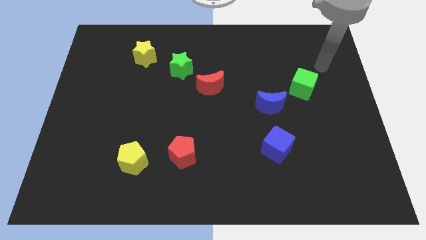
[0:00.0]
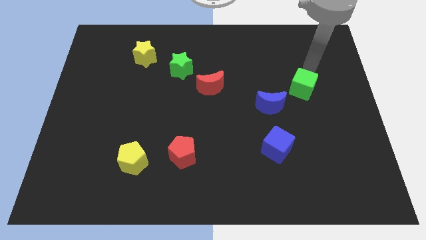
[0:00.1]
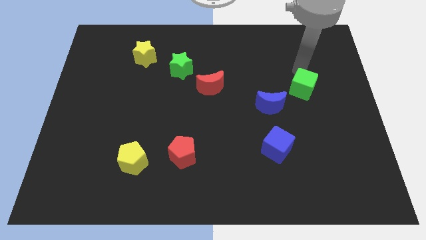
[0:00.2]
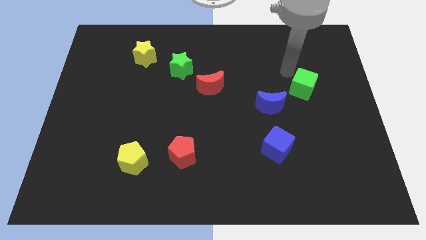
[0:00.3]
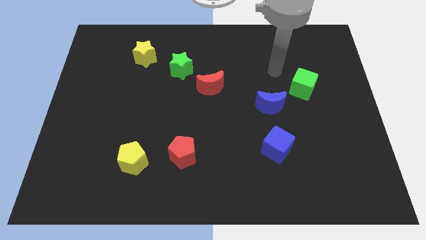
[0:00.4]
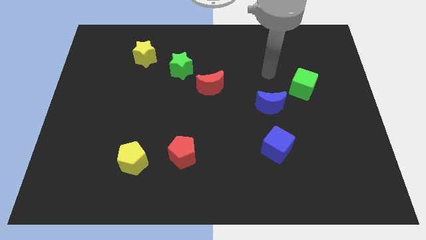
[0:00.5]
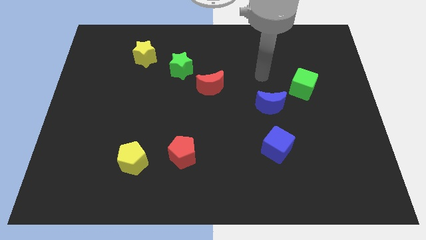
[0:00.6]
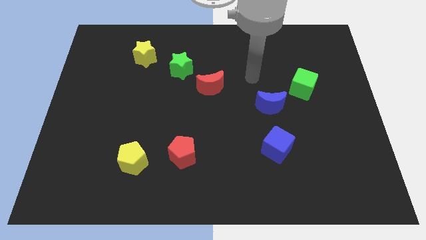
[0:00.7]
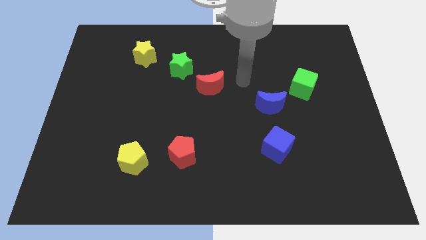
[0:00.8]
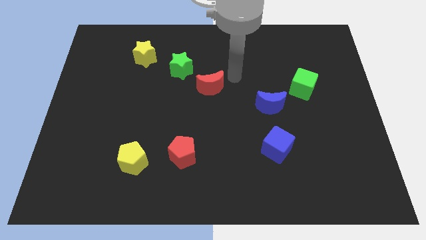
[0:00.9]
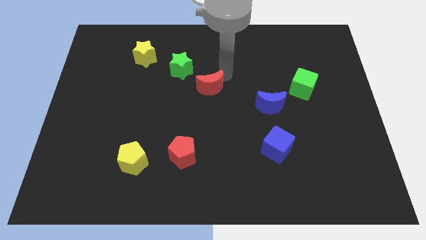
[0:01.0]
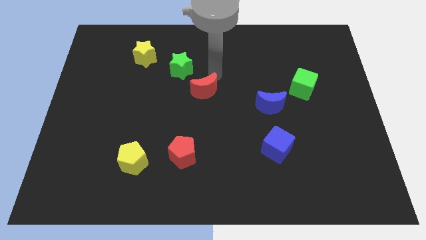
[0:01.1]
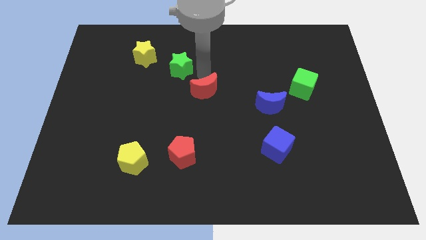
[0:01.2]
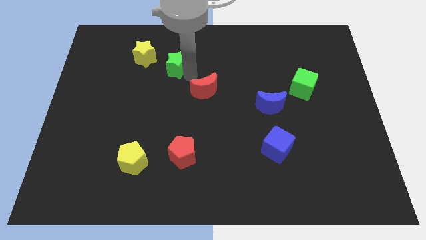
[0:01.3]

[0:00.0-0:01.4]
pull the red moon apart from the green star

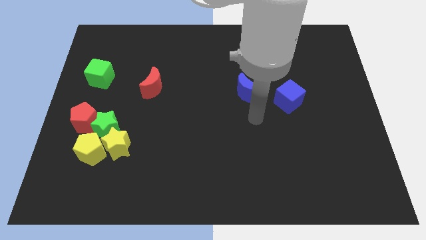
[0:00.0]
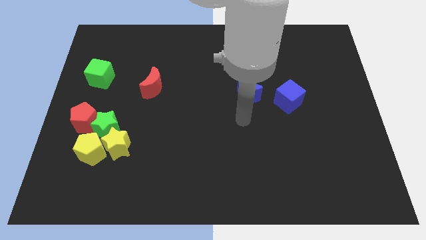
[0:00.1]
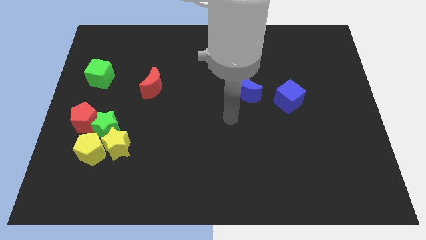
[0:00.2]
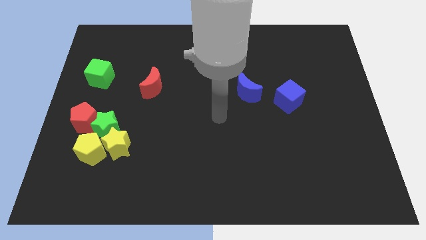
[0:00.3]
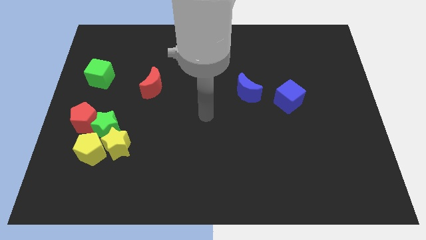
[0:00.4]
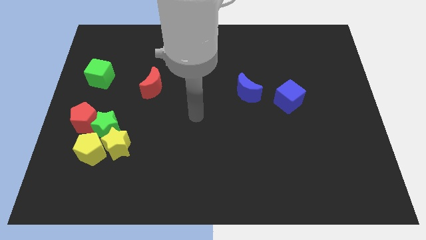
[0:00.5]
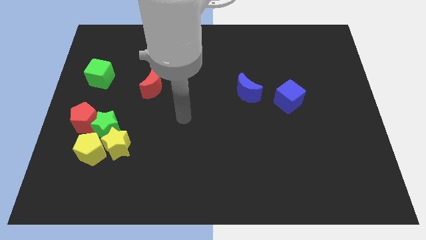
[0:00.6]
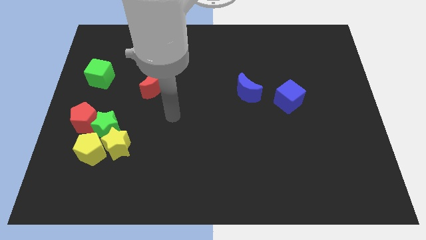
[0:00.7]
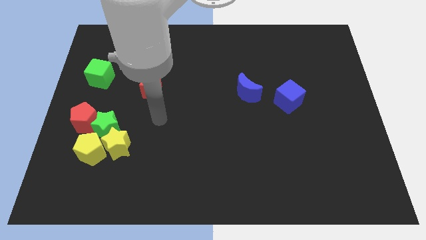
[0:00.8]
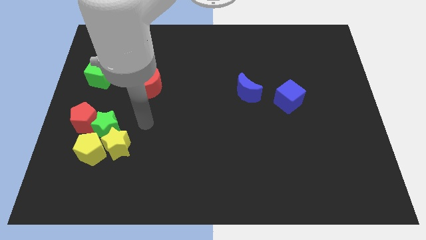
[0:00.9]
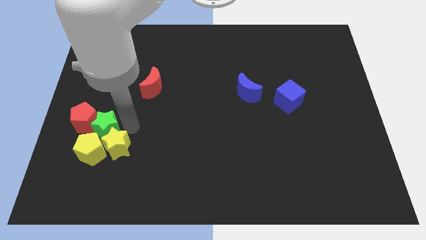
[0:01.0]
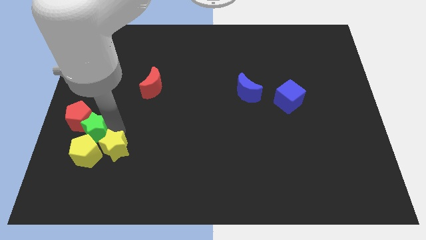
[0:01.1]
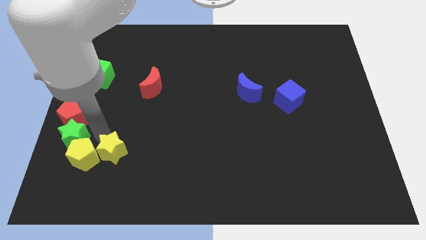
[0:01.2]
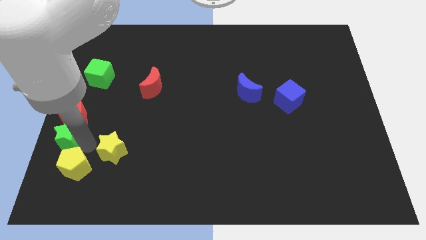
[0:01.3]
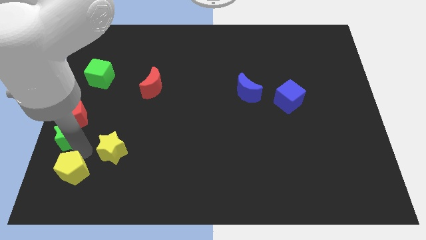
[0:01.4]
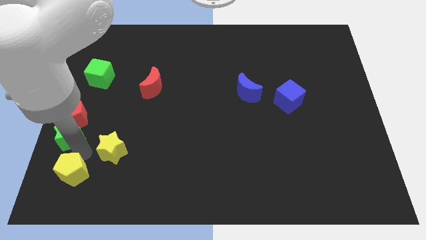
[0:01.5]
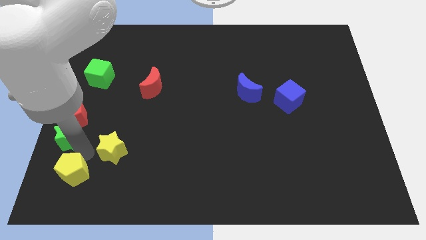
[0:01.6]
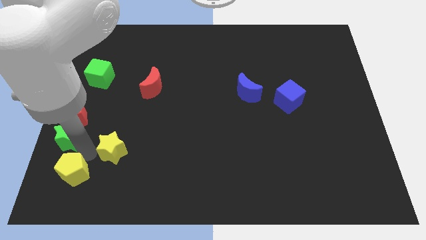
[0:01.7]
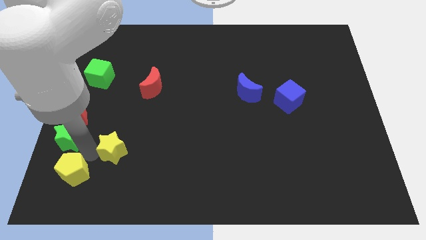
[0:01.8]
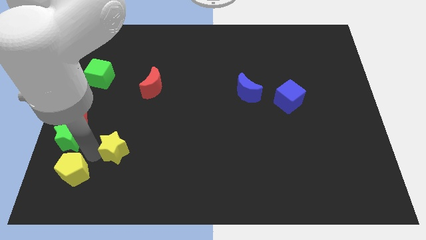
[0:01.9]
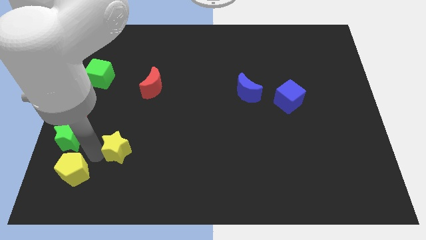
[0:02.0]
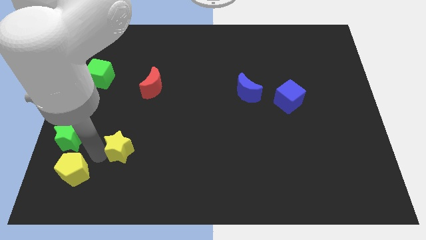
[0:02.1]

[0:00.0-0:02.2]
move the yellow star away from the green star and yellow pentagon

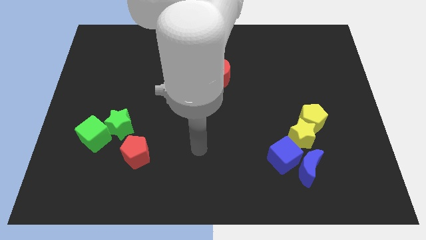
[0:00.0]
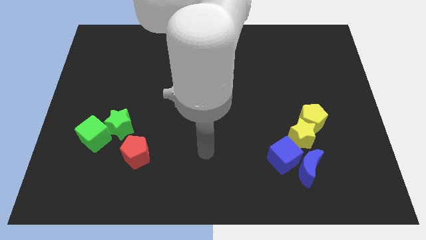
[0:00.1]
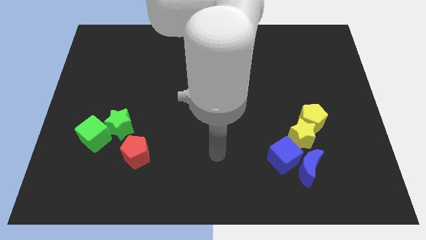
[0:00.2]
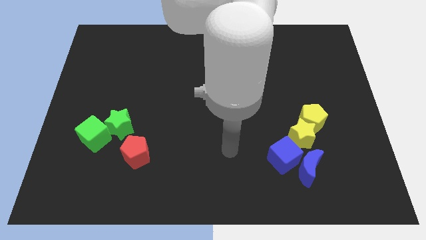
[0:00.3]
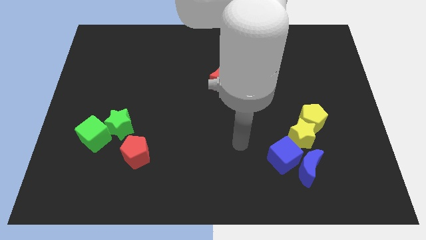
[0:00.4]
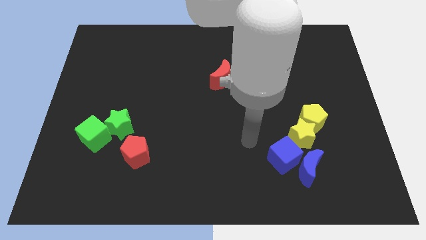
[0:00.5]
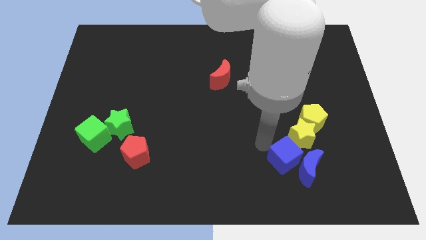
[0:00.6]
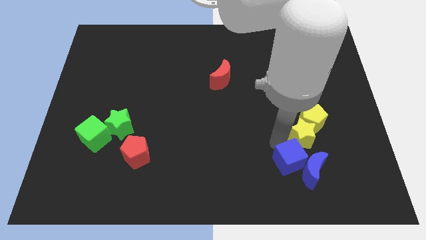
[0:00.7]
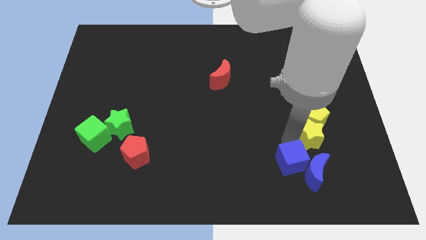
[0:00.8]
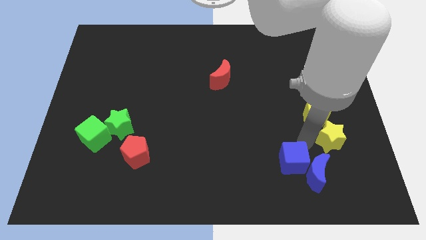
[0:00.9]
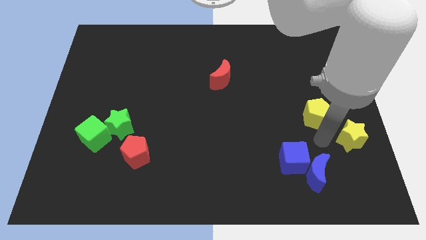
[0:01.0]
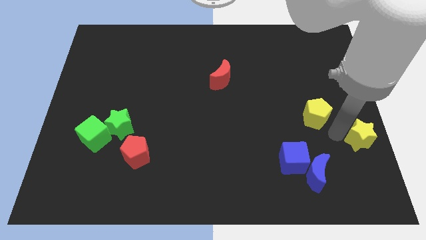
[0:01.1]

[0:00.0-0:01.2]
separate the yellow pentagon from the yellow star

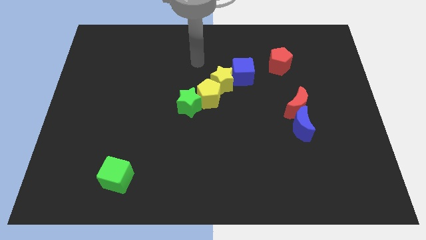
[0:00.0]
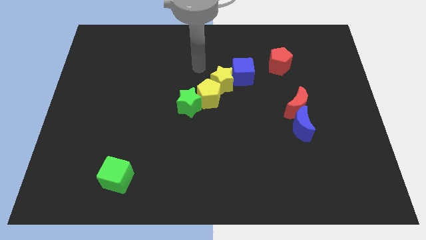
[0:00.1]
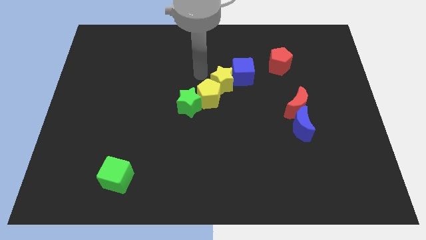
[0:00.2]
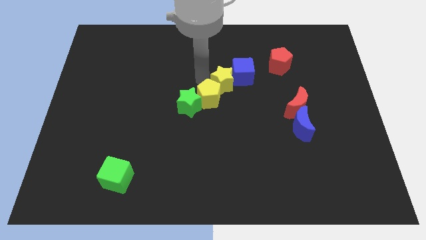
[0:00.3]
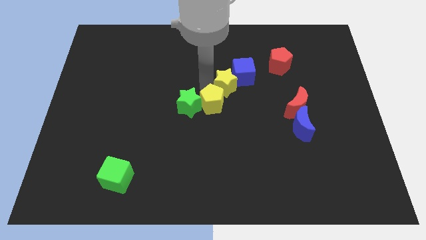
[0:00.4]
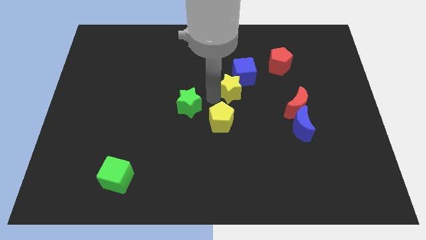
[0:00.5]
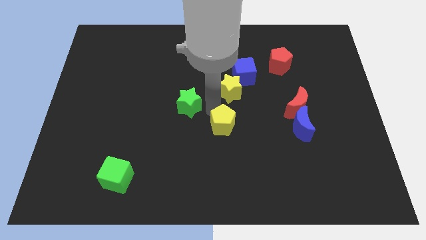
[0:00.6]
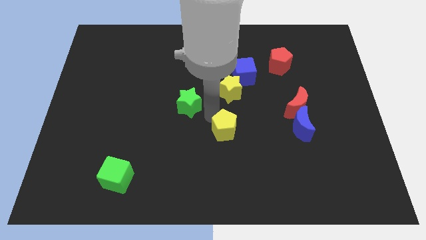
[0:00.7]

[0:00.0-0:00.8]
pull the green star apart from the yellow pentagon

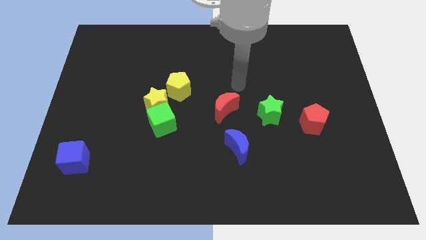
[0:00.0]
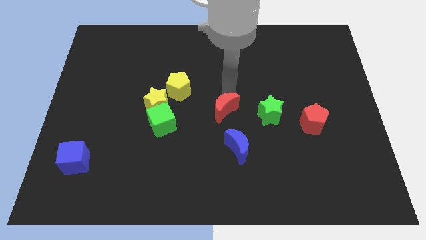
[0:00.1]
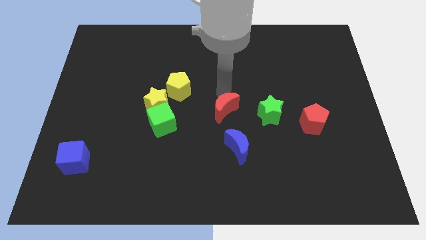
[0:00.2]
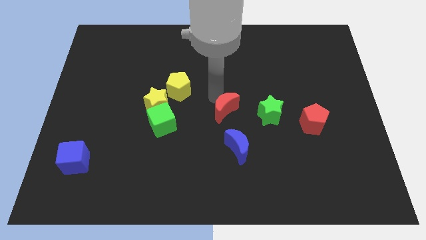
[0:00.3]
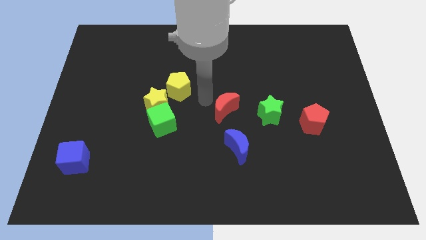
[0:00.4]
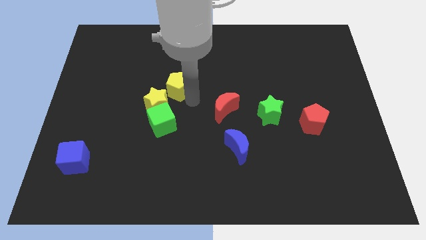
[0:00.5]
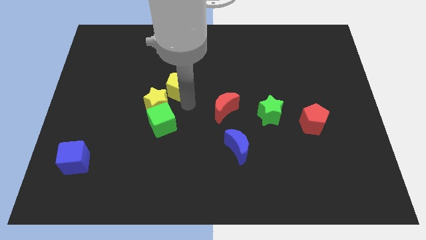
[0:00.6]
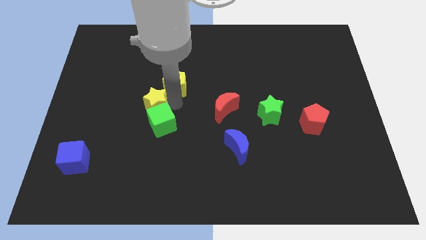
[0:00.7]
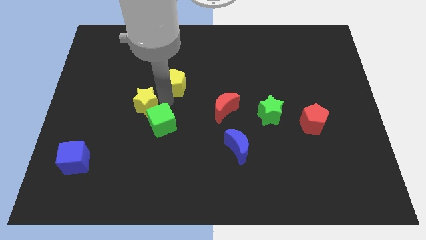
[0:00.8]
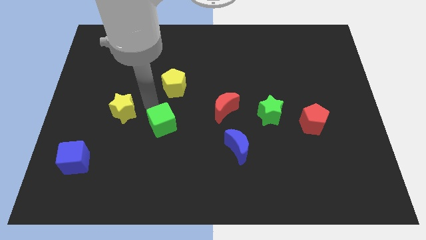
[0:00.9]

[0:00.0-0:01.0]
move the green cube away from the yellow star

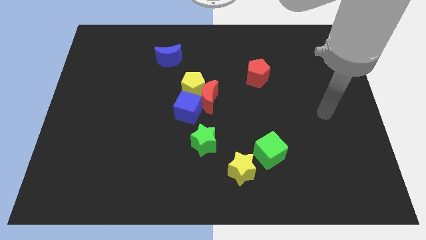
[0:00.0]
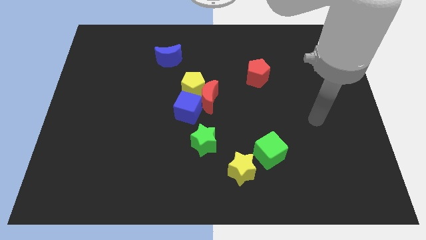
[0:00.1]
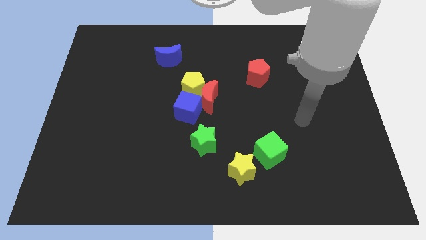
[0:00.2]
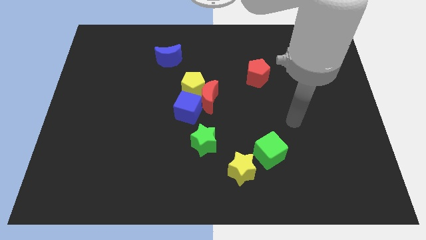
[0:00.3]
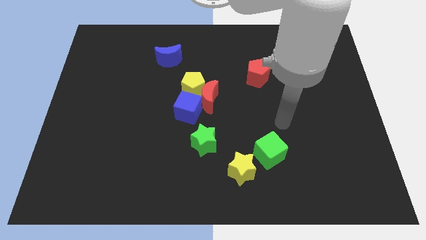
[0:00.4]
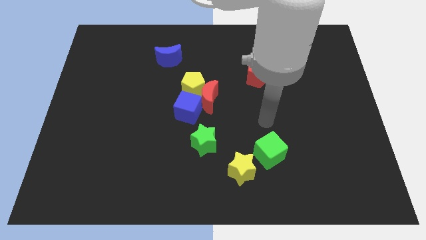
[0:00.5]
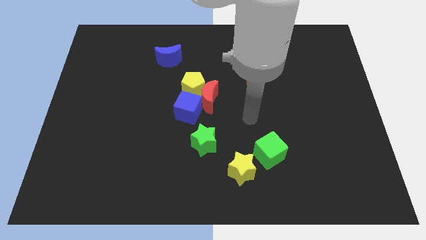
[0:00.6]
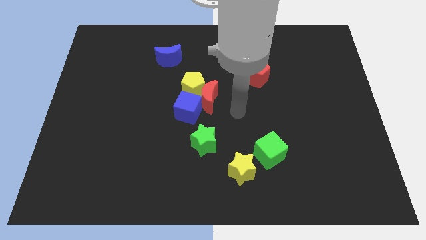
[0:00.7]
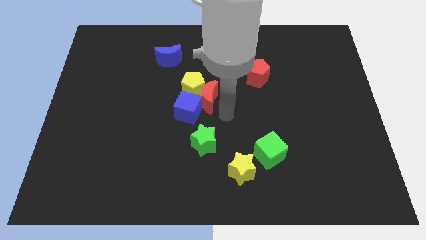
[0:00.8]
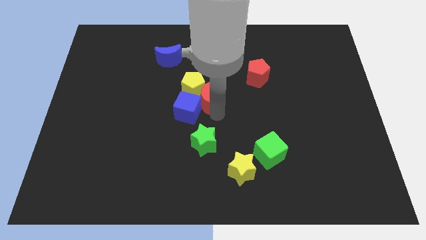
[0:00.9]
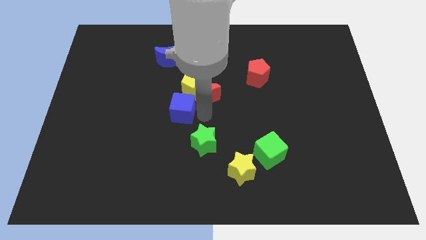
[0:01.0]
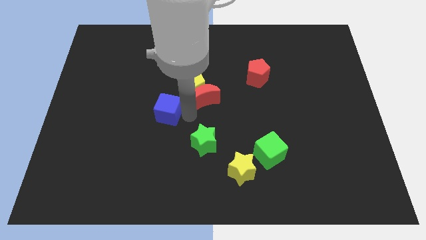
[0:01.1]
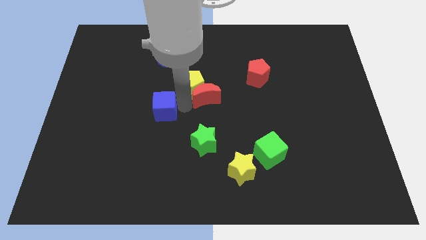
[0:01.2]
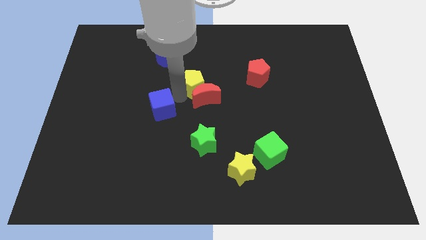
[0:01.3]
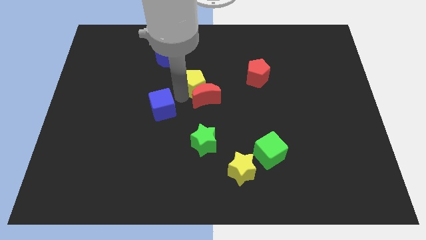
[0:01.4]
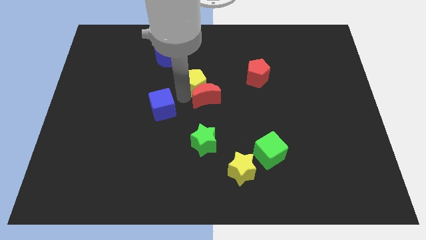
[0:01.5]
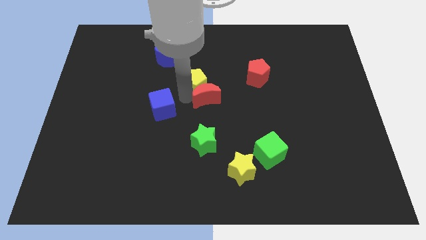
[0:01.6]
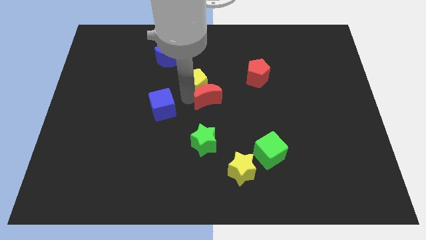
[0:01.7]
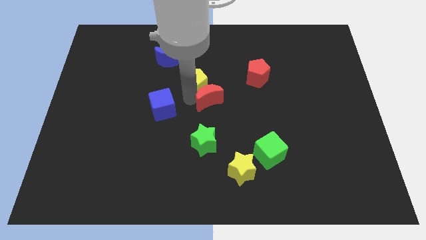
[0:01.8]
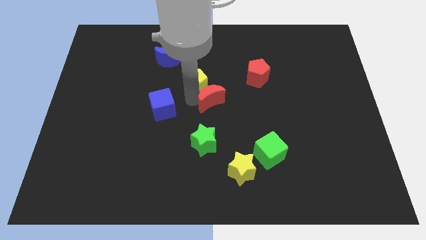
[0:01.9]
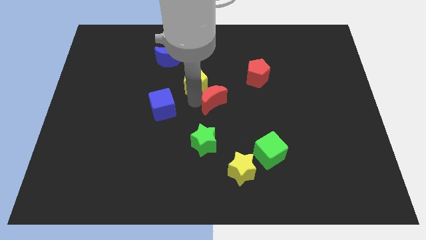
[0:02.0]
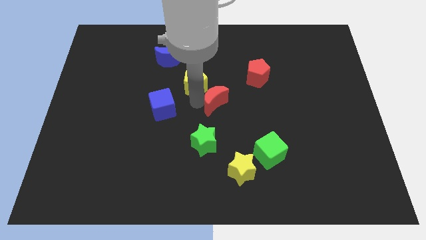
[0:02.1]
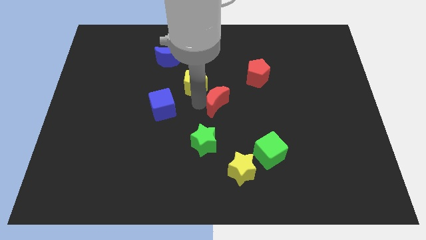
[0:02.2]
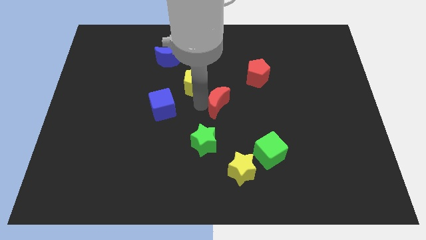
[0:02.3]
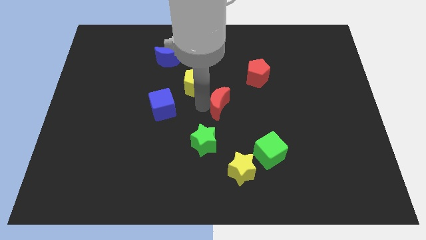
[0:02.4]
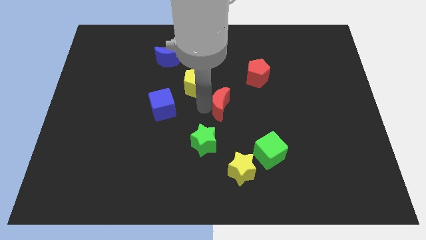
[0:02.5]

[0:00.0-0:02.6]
separate the red moon from the yellow pentagon and blue cube

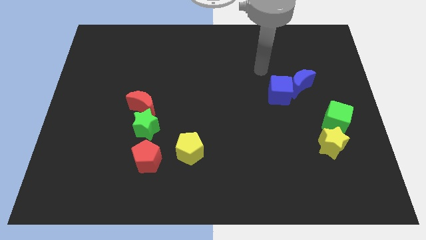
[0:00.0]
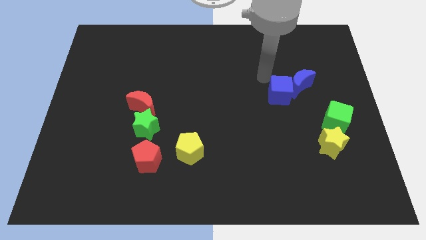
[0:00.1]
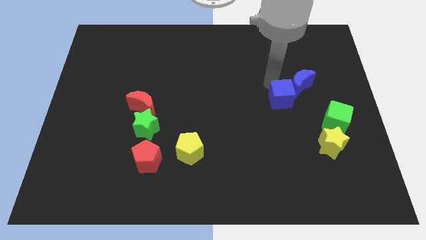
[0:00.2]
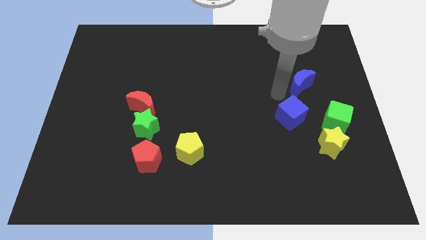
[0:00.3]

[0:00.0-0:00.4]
move the blue moon away from the blue cube
